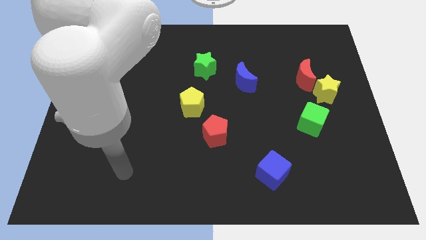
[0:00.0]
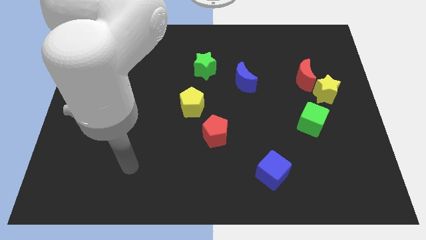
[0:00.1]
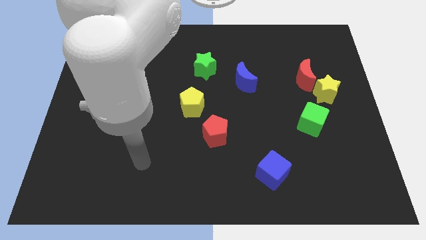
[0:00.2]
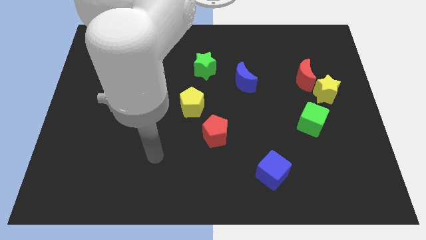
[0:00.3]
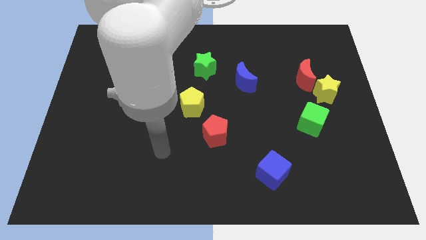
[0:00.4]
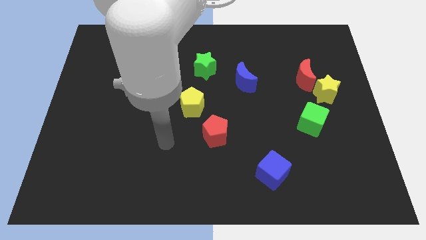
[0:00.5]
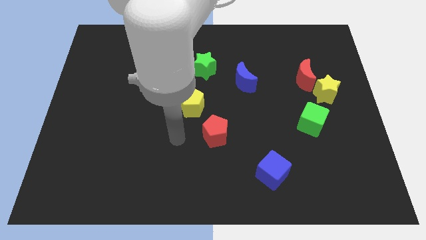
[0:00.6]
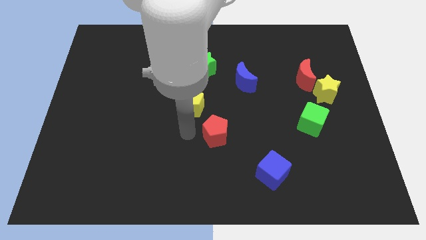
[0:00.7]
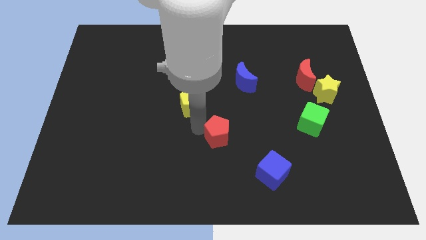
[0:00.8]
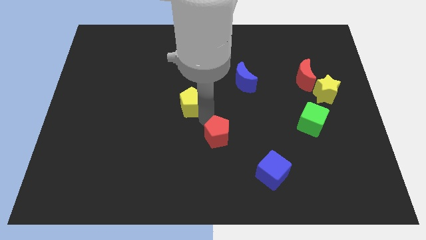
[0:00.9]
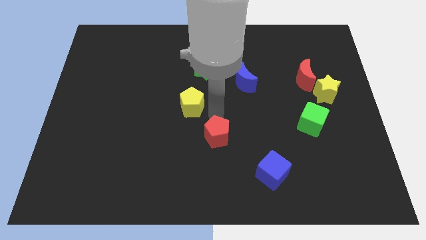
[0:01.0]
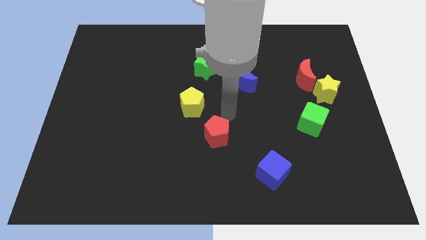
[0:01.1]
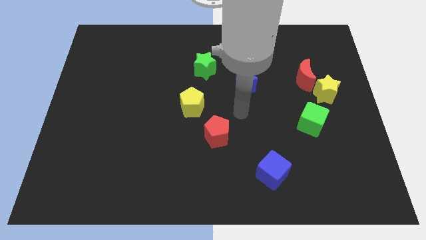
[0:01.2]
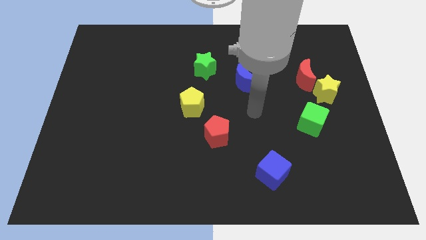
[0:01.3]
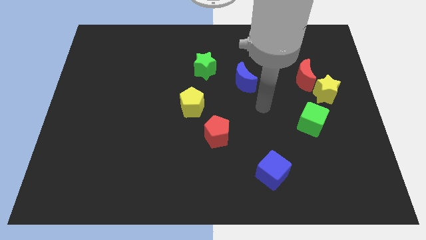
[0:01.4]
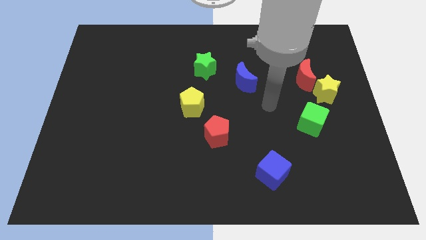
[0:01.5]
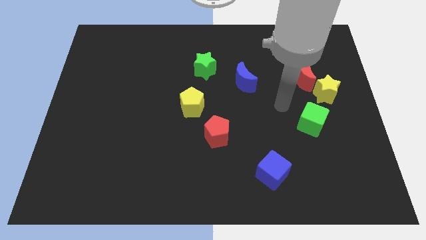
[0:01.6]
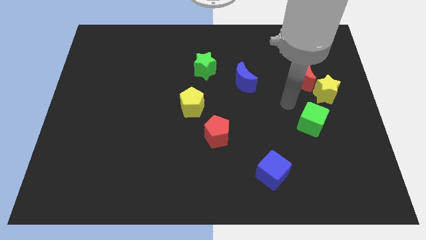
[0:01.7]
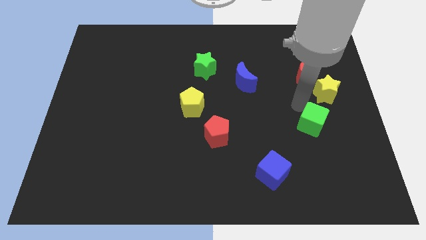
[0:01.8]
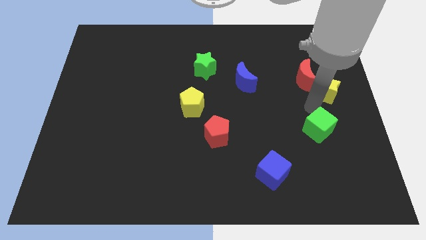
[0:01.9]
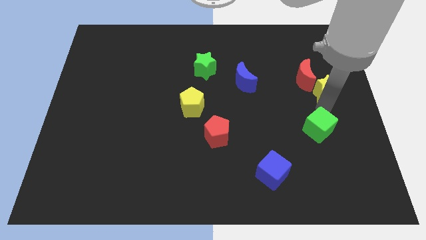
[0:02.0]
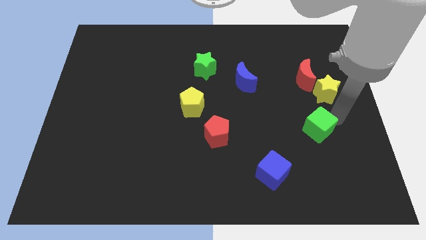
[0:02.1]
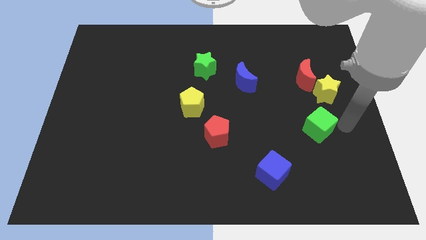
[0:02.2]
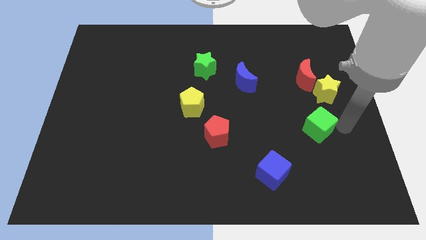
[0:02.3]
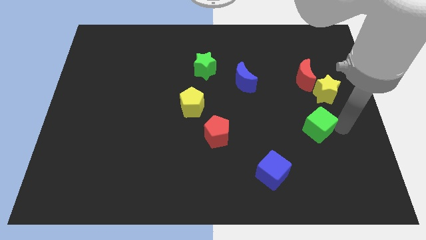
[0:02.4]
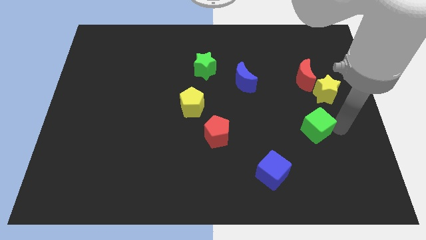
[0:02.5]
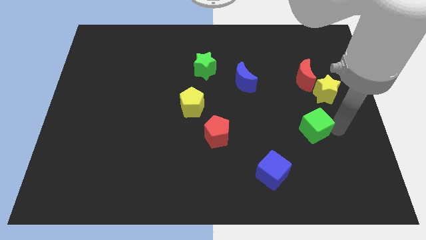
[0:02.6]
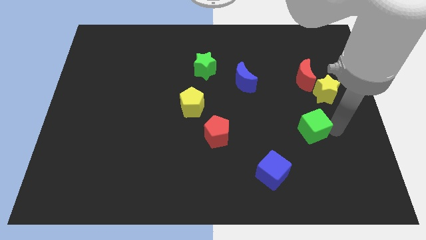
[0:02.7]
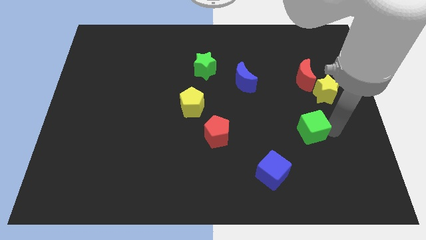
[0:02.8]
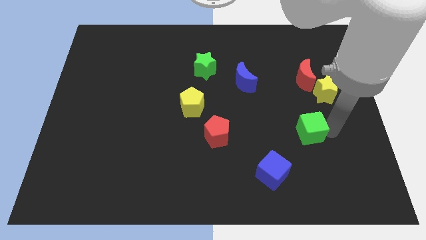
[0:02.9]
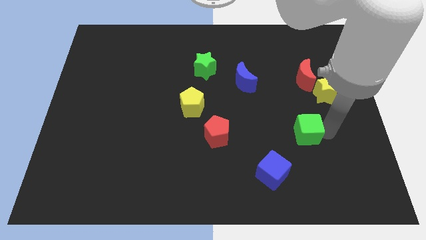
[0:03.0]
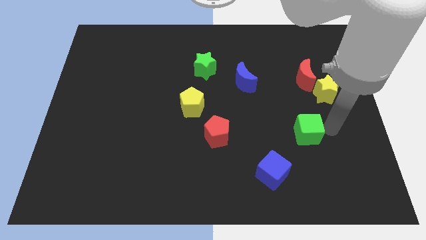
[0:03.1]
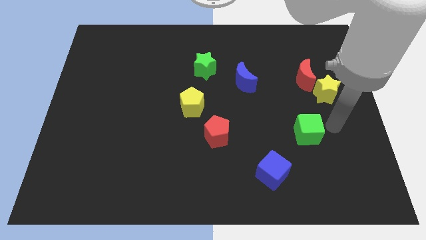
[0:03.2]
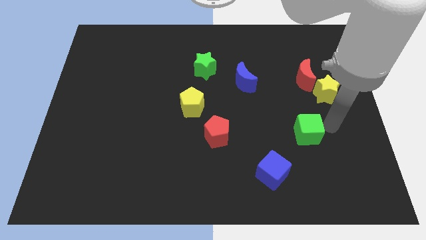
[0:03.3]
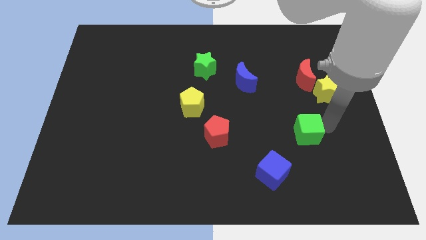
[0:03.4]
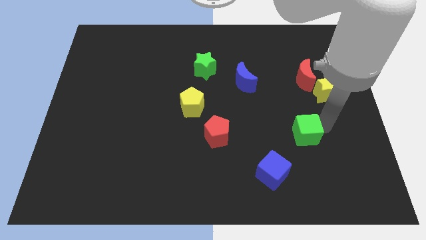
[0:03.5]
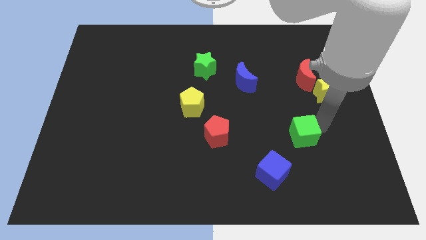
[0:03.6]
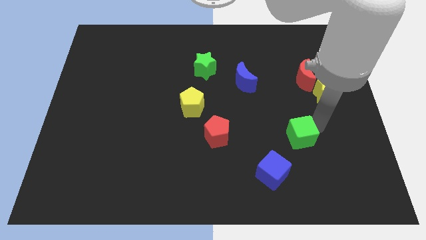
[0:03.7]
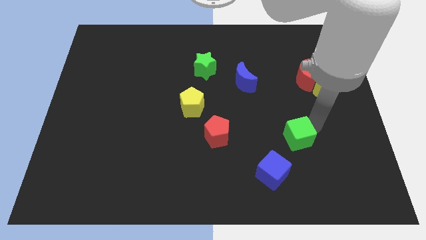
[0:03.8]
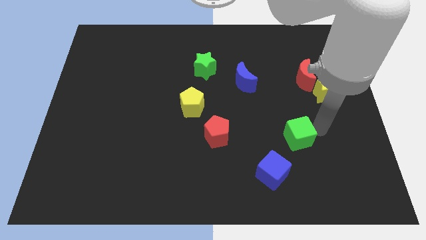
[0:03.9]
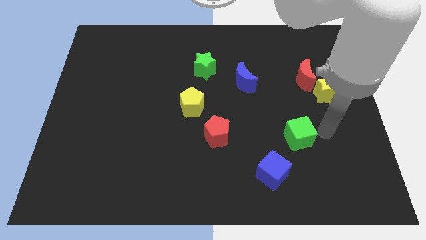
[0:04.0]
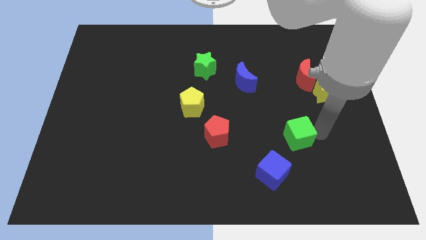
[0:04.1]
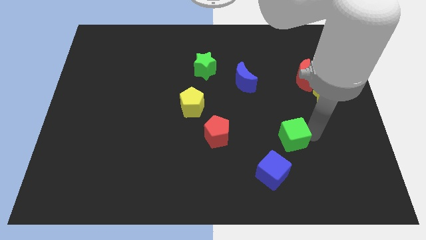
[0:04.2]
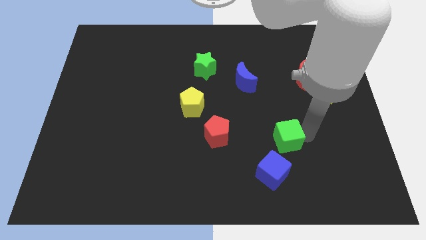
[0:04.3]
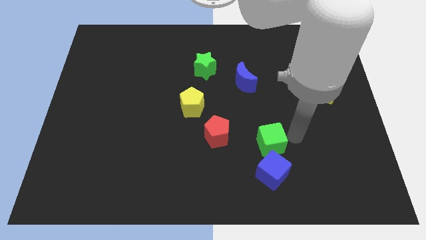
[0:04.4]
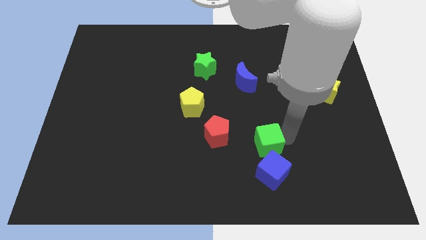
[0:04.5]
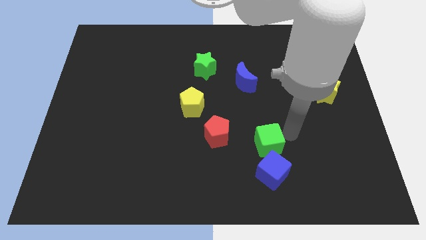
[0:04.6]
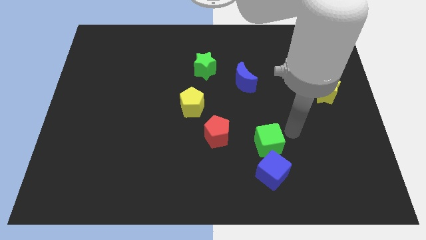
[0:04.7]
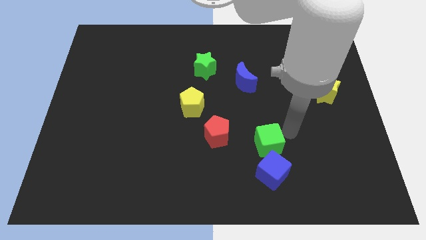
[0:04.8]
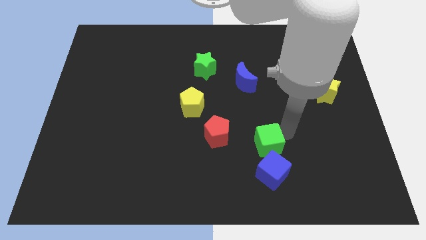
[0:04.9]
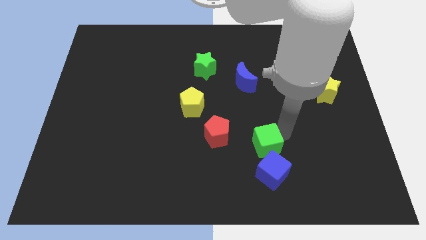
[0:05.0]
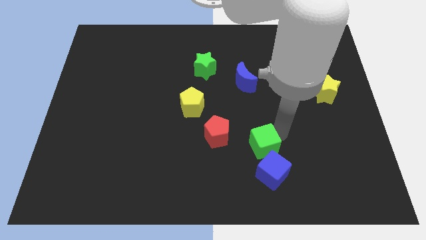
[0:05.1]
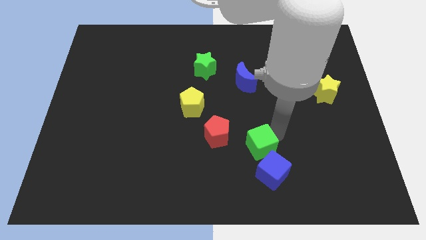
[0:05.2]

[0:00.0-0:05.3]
push the green cube to the bottom right side of the red pentagon

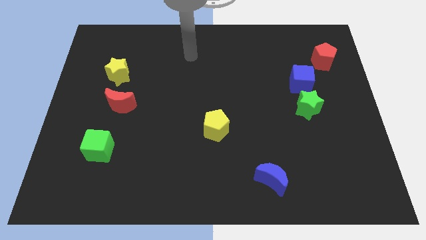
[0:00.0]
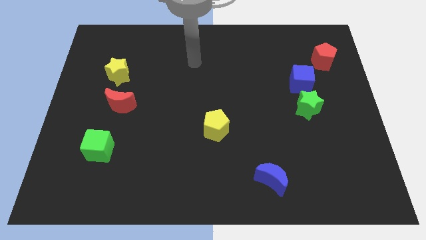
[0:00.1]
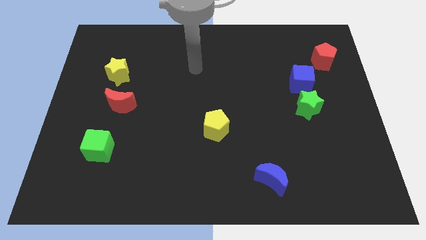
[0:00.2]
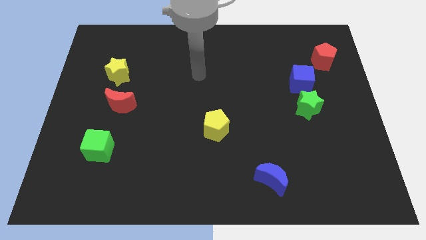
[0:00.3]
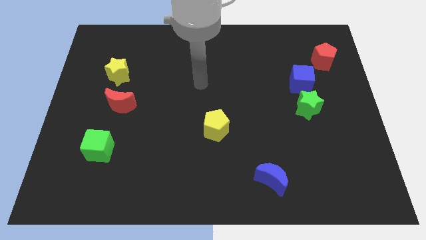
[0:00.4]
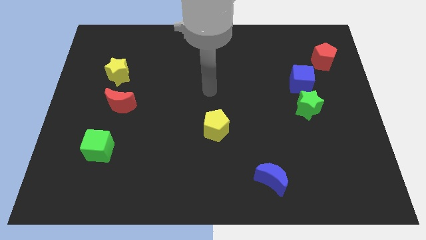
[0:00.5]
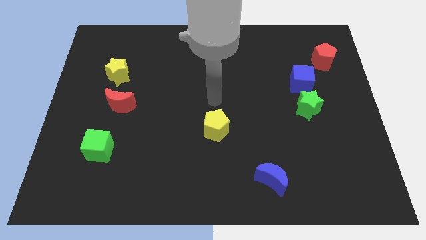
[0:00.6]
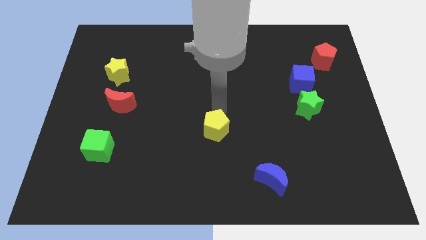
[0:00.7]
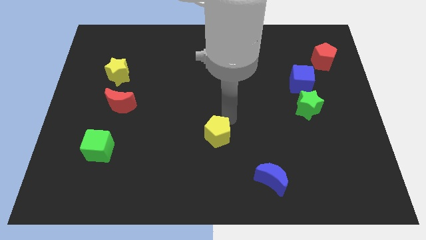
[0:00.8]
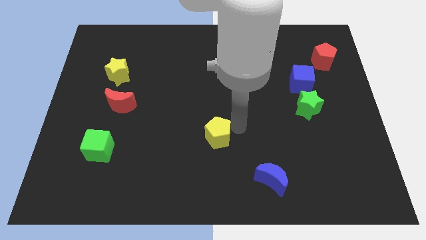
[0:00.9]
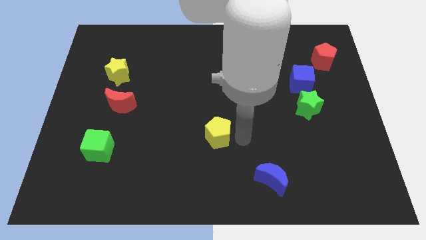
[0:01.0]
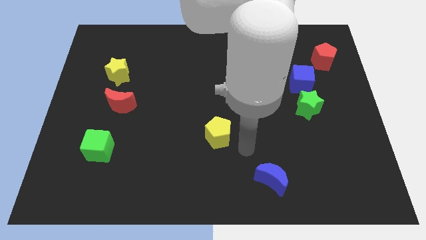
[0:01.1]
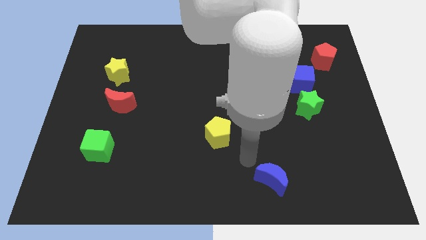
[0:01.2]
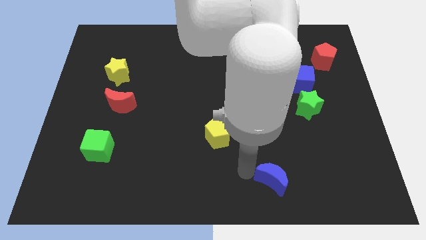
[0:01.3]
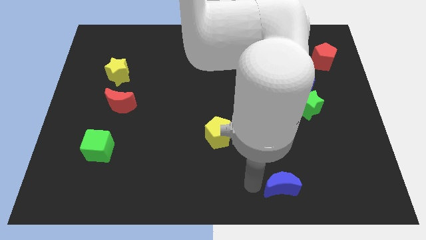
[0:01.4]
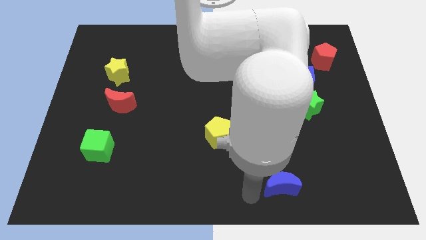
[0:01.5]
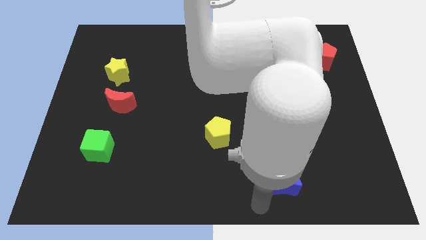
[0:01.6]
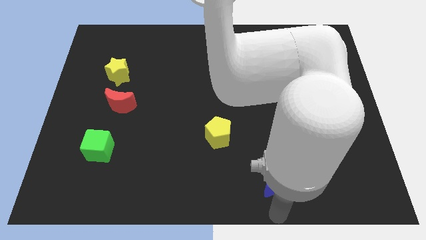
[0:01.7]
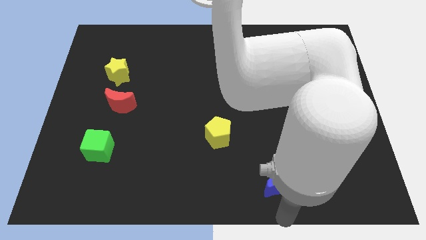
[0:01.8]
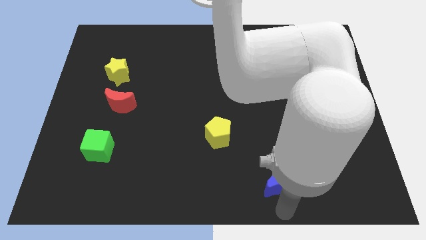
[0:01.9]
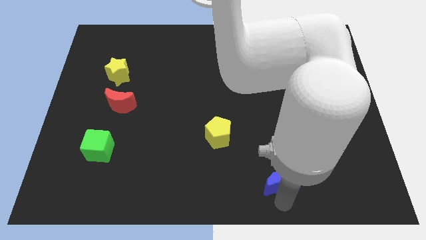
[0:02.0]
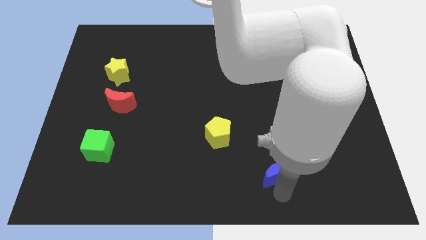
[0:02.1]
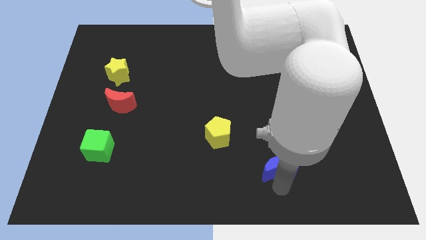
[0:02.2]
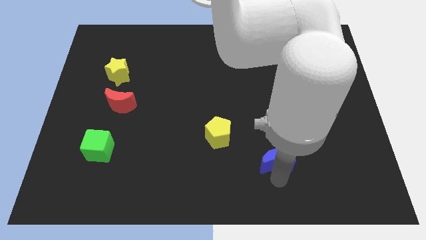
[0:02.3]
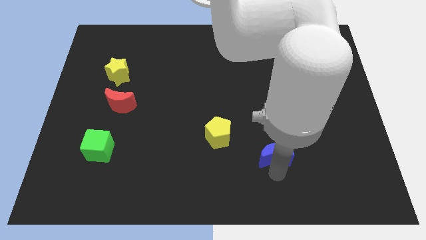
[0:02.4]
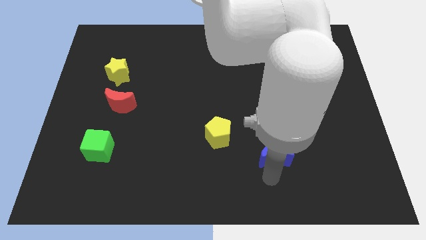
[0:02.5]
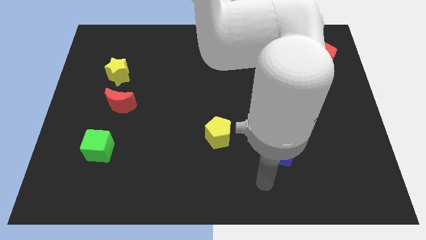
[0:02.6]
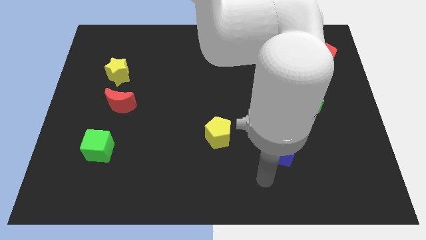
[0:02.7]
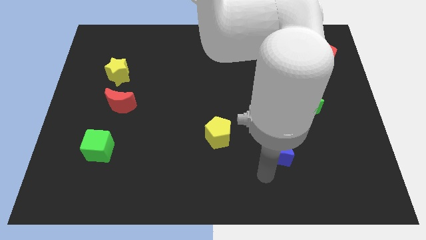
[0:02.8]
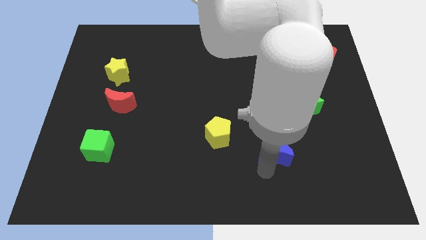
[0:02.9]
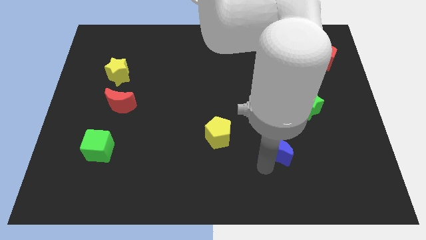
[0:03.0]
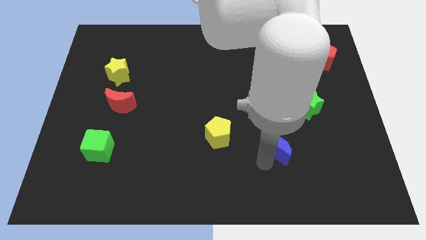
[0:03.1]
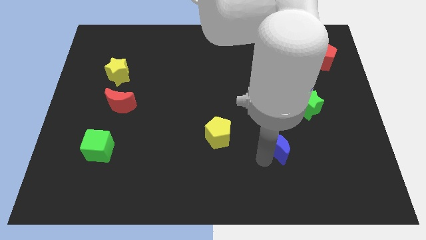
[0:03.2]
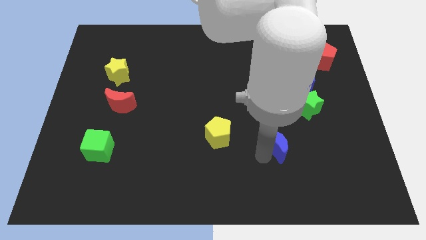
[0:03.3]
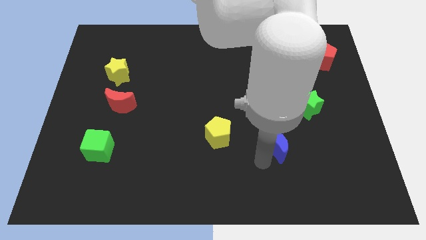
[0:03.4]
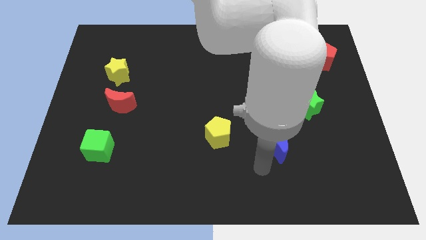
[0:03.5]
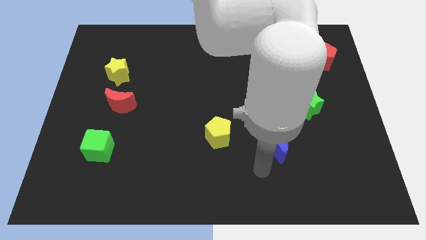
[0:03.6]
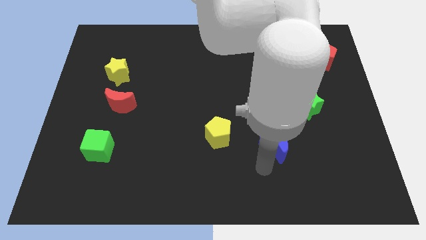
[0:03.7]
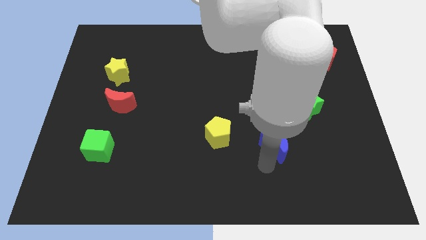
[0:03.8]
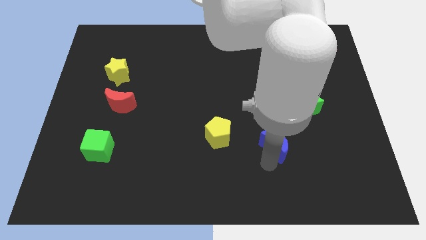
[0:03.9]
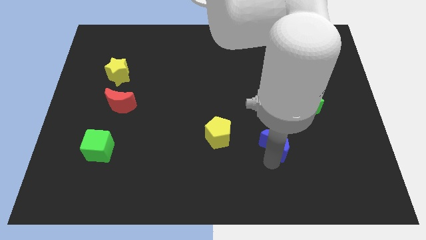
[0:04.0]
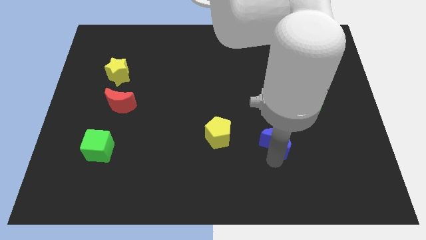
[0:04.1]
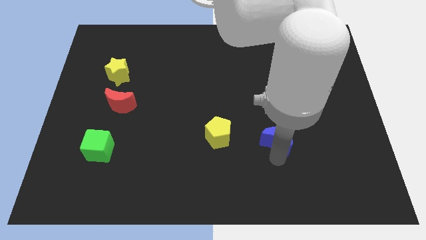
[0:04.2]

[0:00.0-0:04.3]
put the blue moon diagonally down and to the left of the green star
